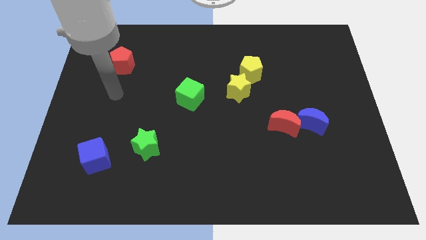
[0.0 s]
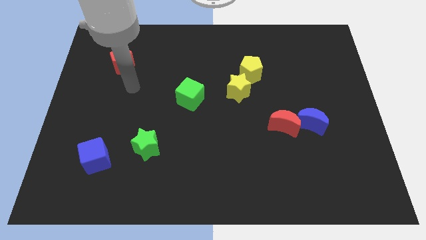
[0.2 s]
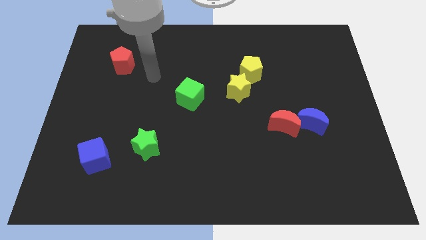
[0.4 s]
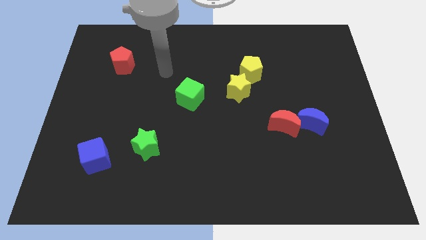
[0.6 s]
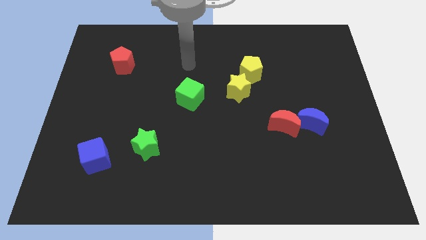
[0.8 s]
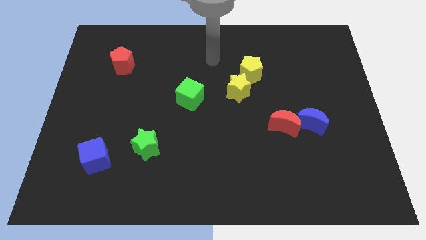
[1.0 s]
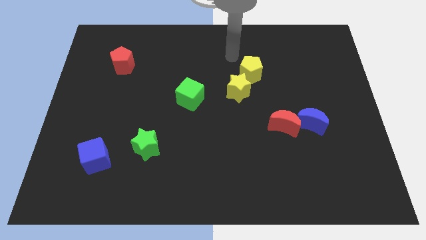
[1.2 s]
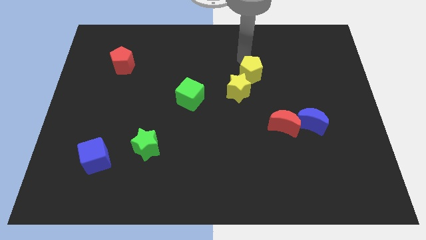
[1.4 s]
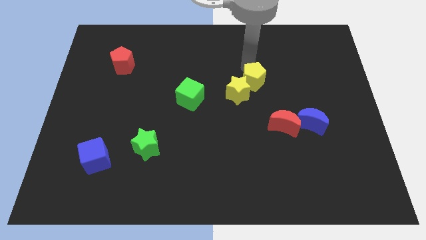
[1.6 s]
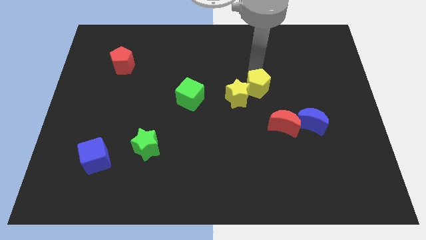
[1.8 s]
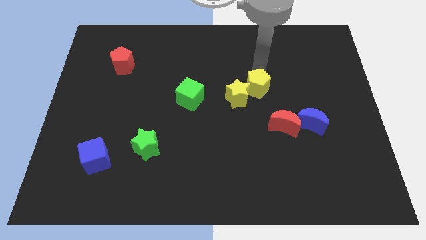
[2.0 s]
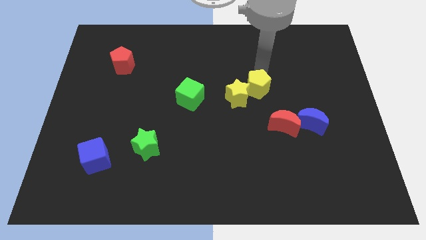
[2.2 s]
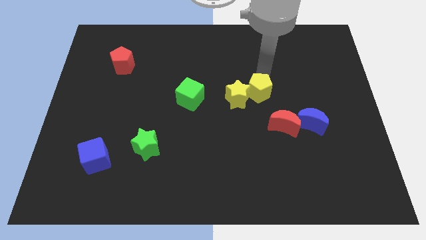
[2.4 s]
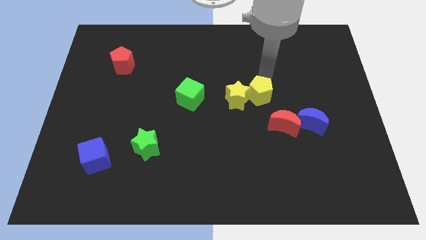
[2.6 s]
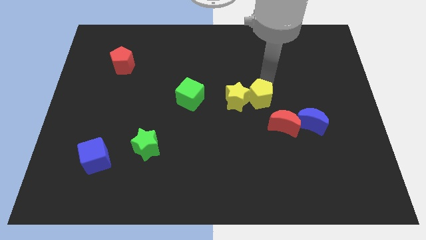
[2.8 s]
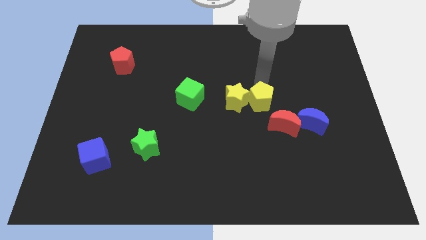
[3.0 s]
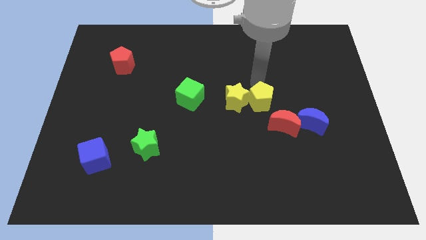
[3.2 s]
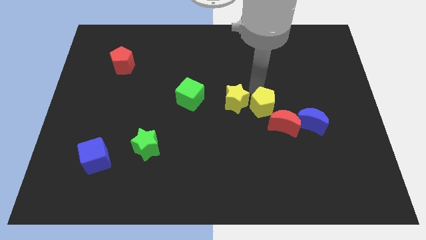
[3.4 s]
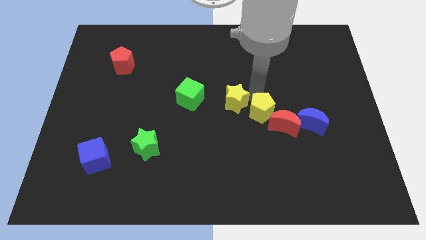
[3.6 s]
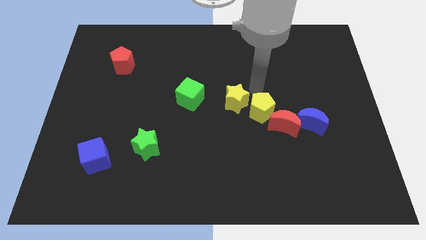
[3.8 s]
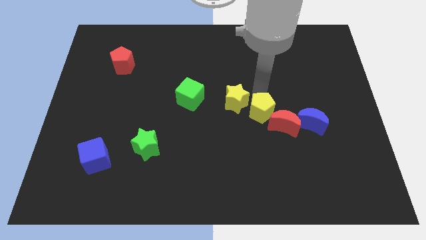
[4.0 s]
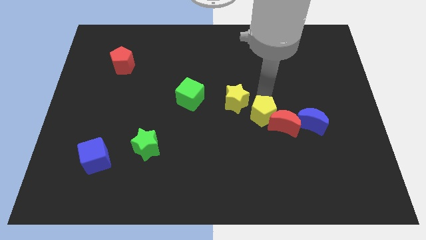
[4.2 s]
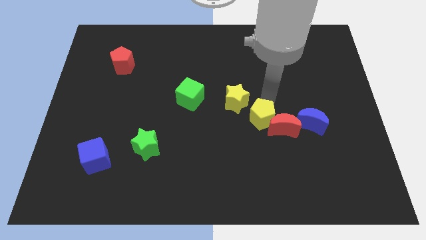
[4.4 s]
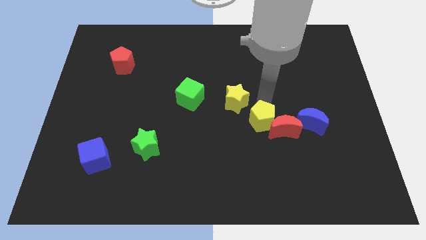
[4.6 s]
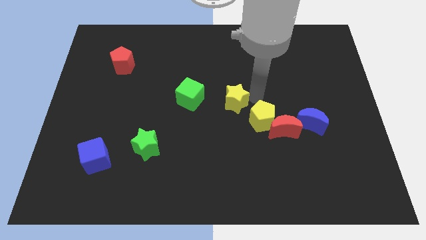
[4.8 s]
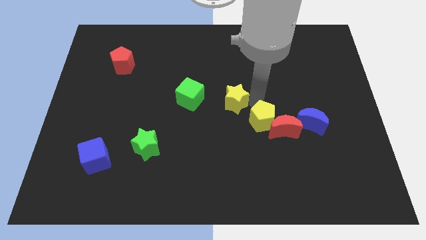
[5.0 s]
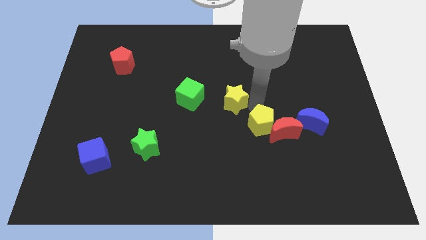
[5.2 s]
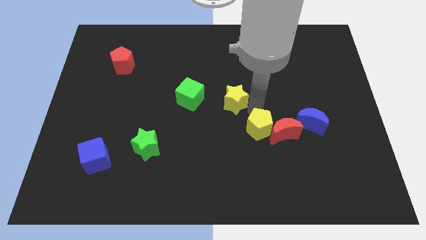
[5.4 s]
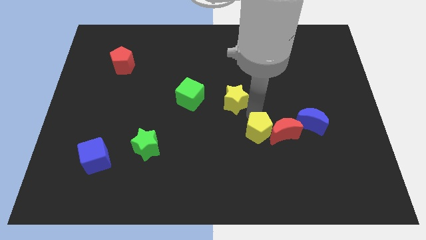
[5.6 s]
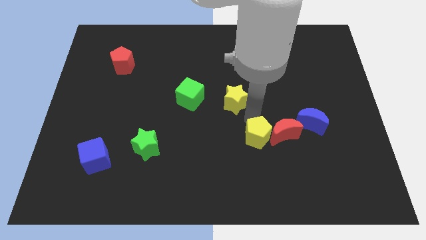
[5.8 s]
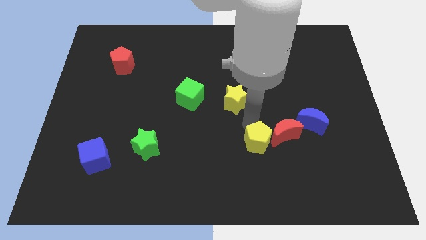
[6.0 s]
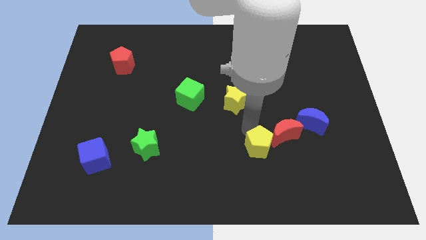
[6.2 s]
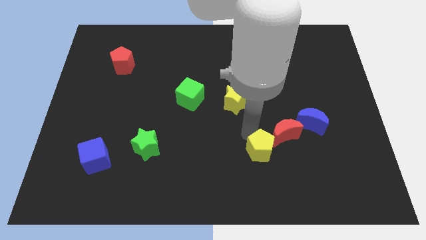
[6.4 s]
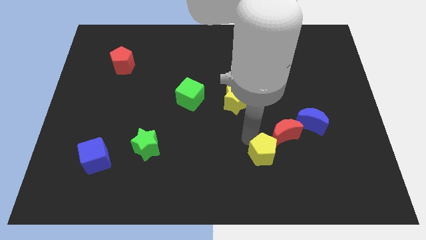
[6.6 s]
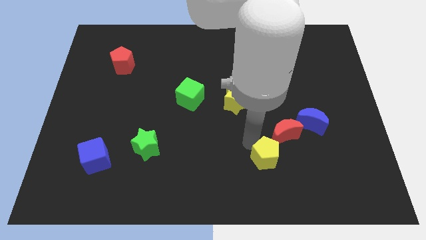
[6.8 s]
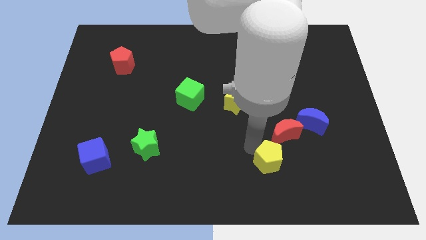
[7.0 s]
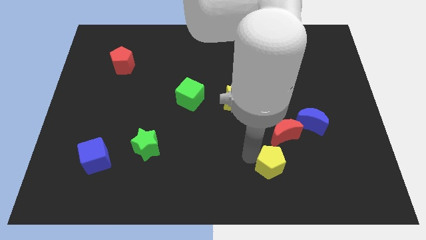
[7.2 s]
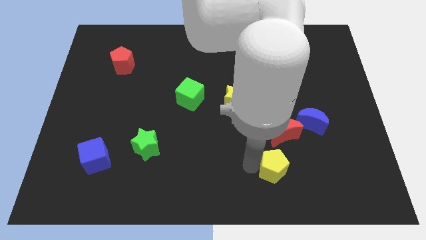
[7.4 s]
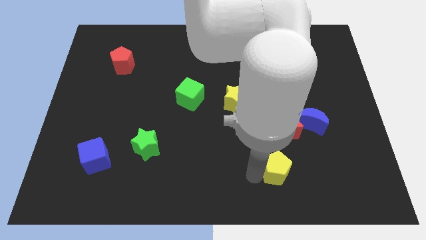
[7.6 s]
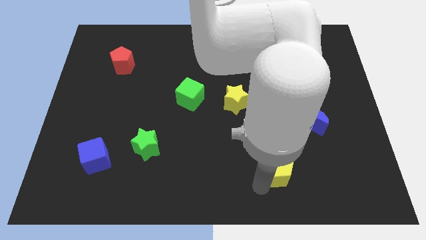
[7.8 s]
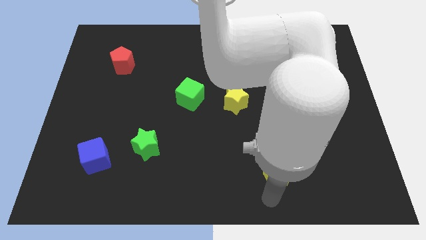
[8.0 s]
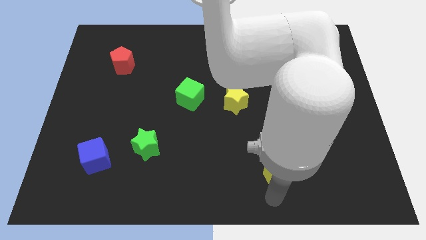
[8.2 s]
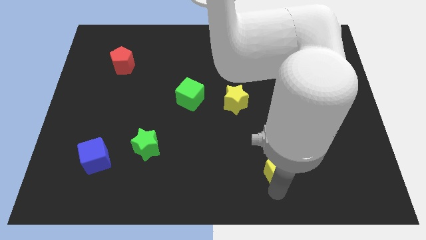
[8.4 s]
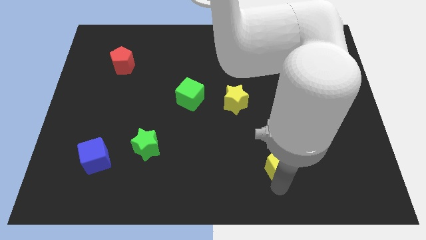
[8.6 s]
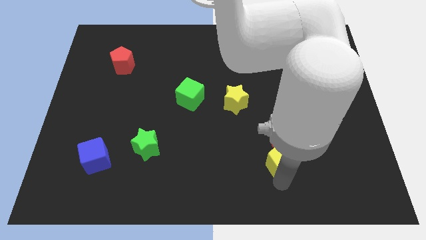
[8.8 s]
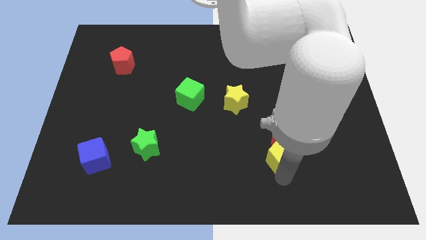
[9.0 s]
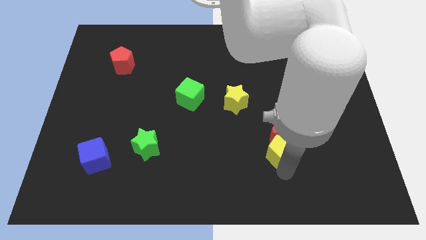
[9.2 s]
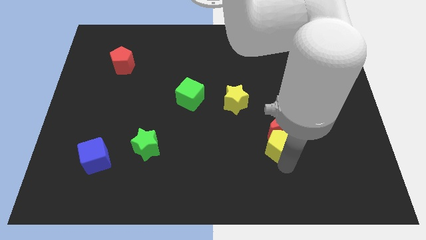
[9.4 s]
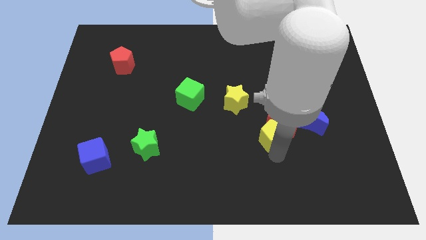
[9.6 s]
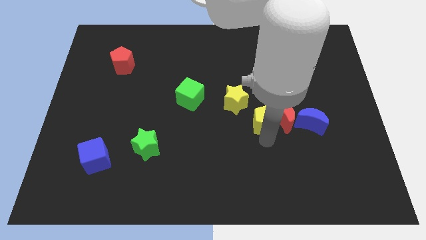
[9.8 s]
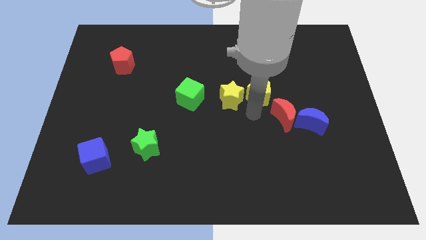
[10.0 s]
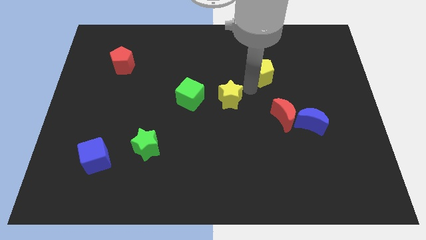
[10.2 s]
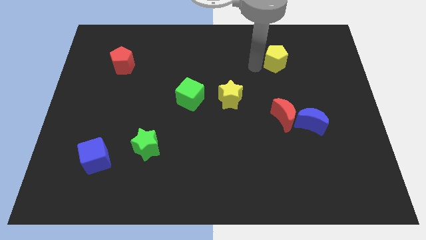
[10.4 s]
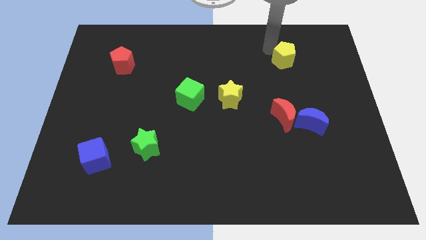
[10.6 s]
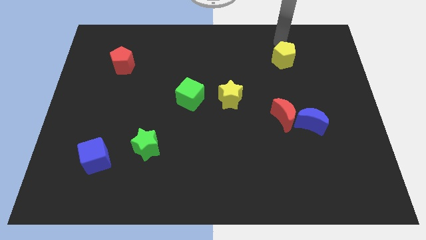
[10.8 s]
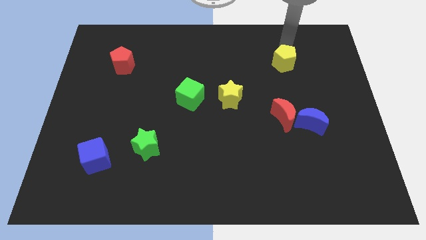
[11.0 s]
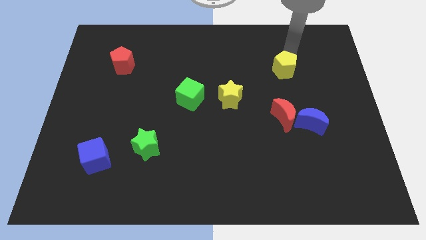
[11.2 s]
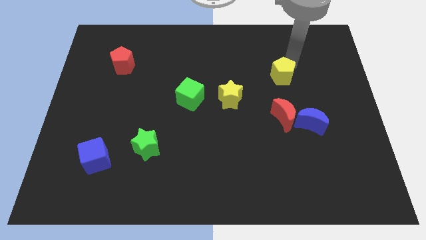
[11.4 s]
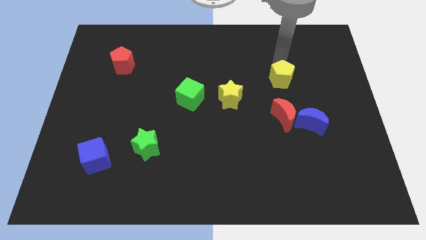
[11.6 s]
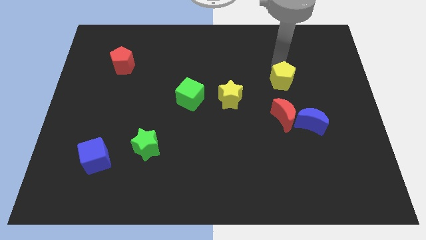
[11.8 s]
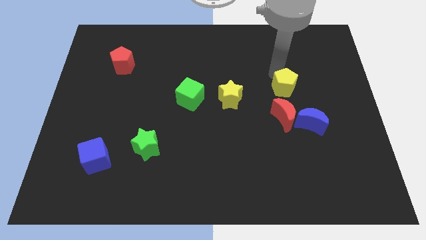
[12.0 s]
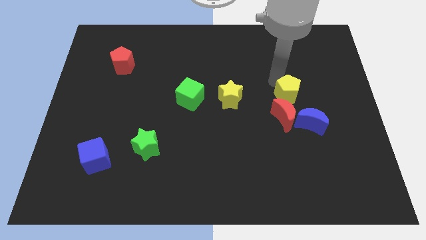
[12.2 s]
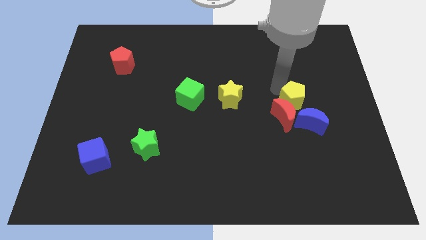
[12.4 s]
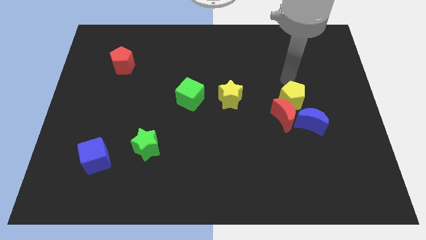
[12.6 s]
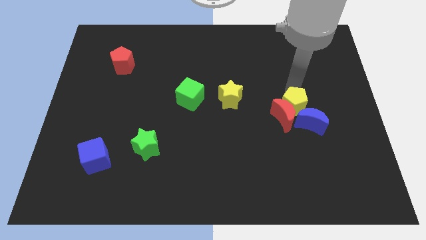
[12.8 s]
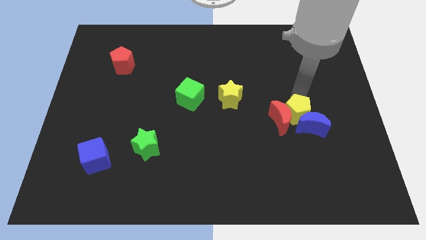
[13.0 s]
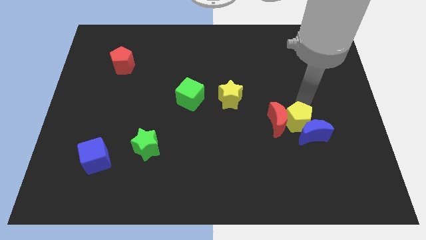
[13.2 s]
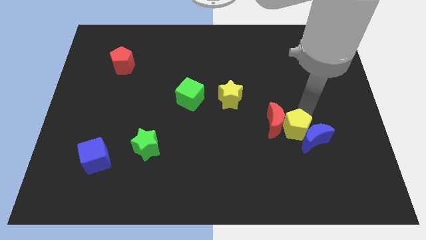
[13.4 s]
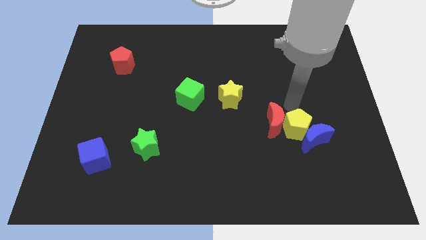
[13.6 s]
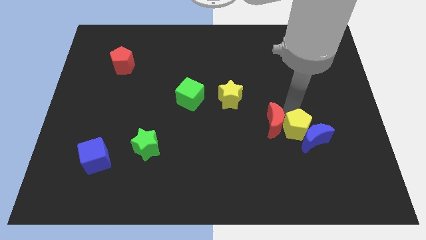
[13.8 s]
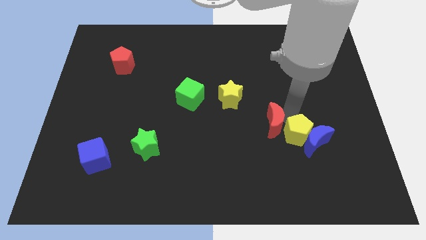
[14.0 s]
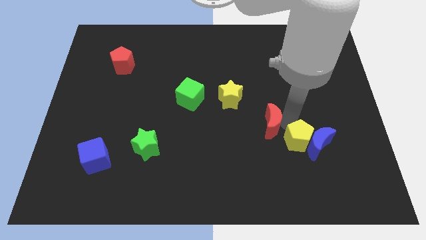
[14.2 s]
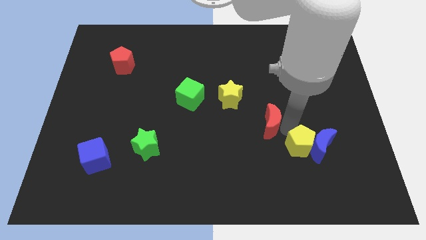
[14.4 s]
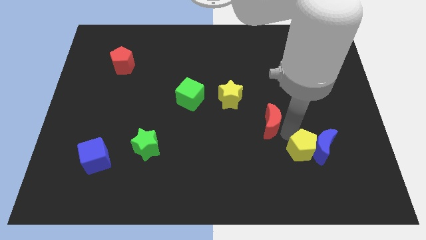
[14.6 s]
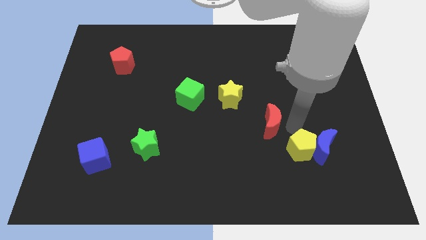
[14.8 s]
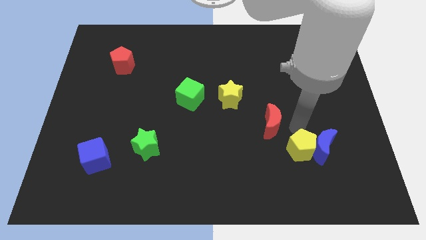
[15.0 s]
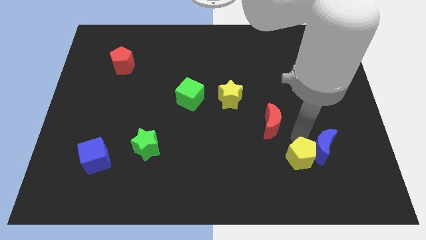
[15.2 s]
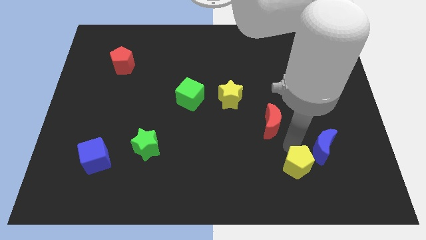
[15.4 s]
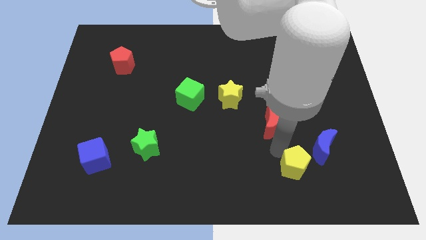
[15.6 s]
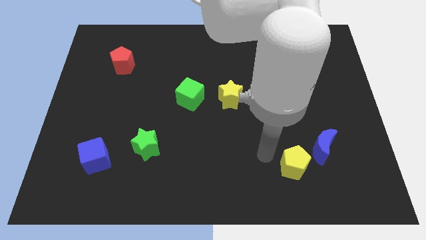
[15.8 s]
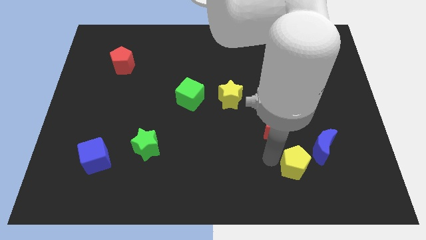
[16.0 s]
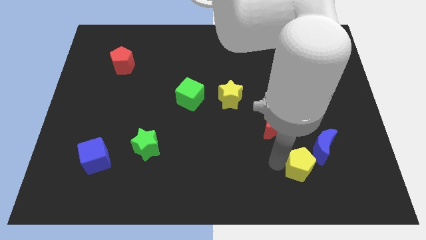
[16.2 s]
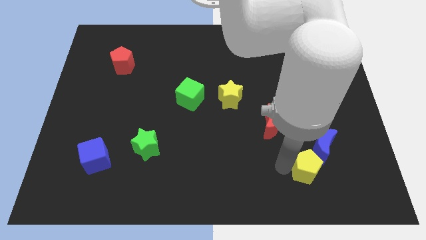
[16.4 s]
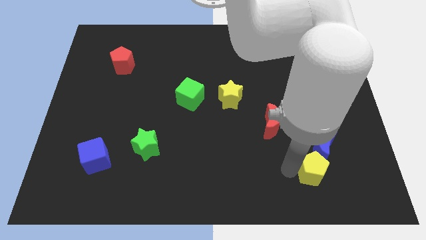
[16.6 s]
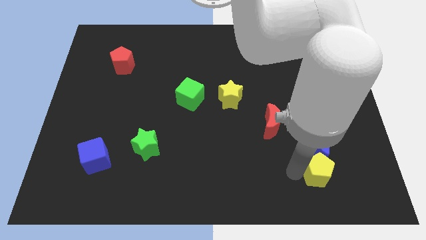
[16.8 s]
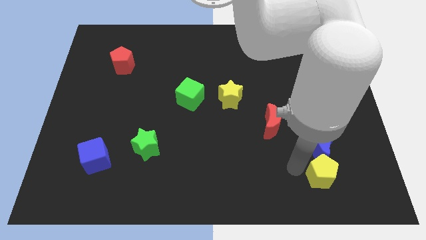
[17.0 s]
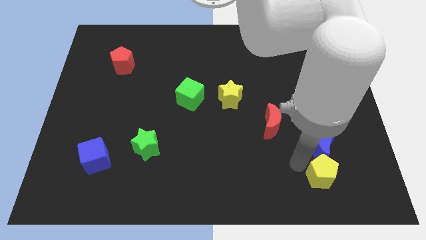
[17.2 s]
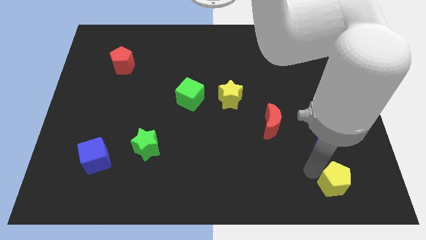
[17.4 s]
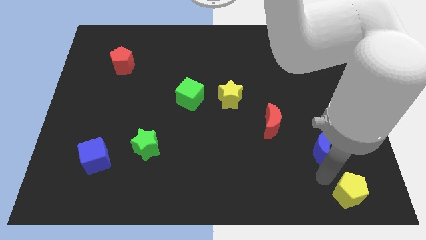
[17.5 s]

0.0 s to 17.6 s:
move the yellow pentagon to the bottom right of the board
